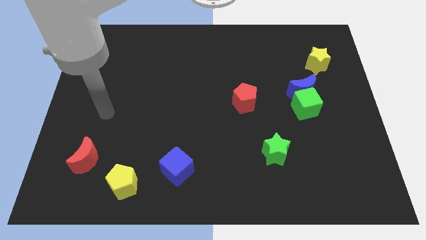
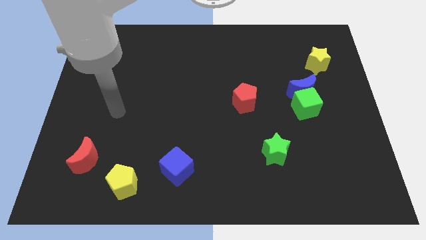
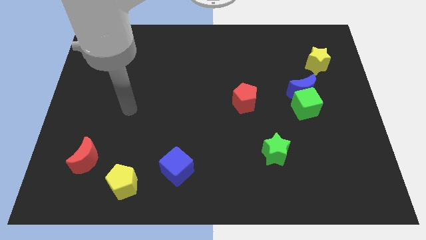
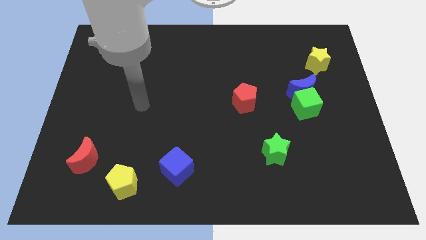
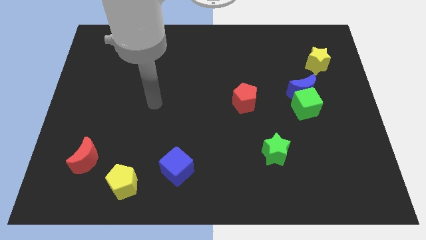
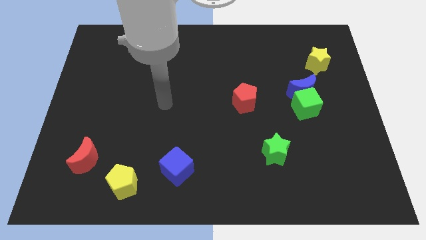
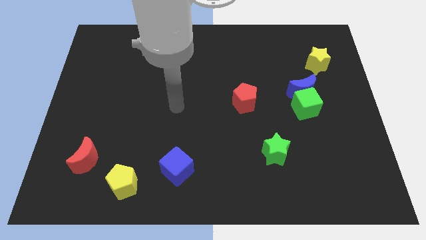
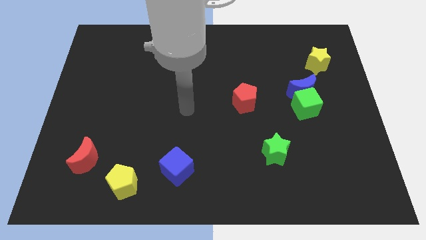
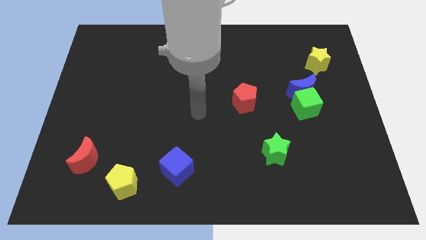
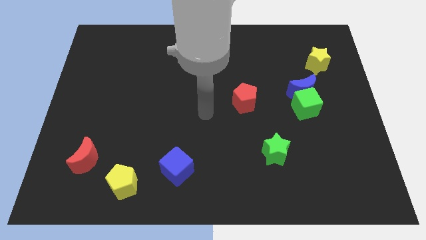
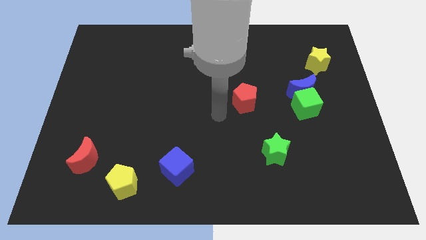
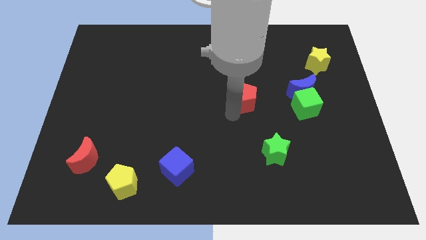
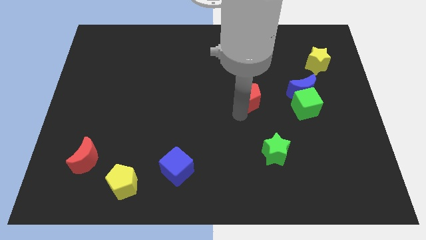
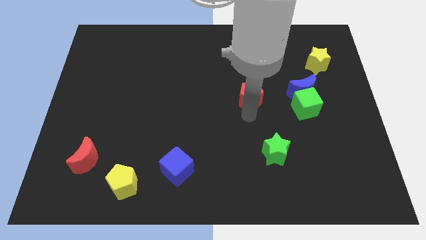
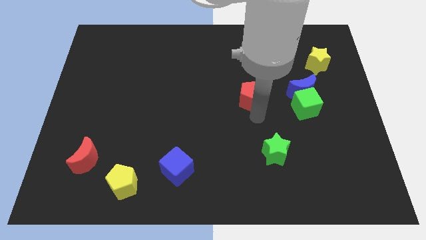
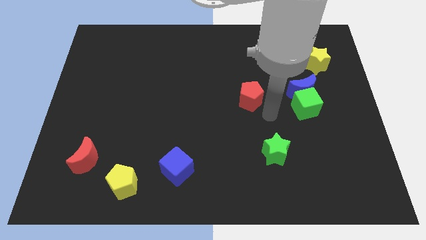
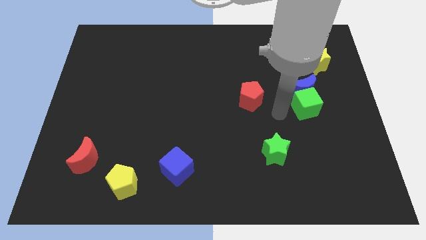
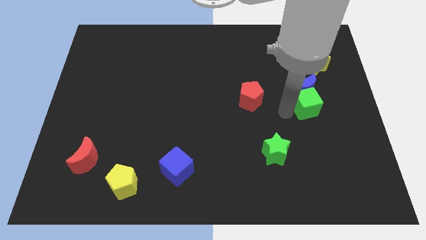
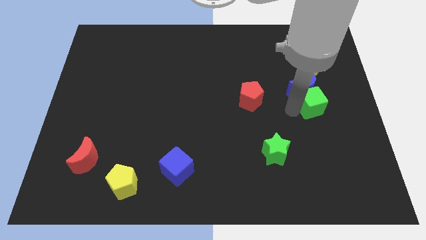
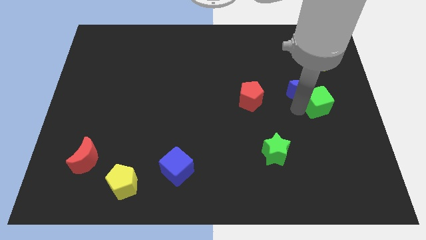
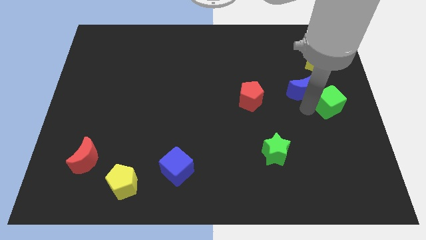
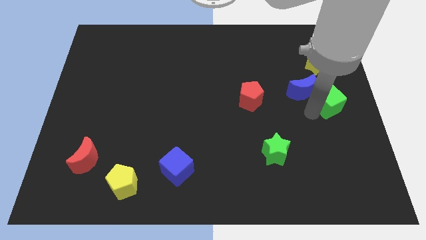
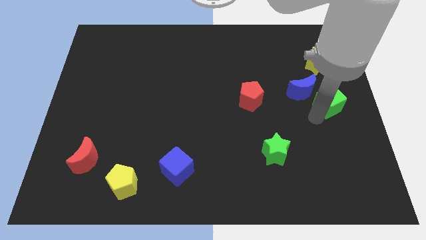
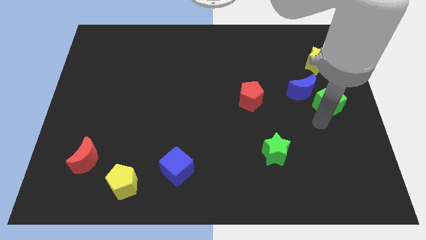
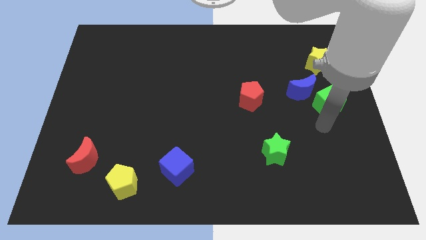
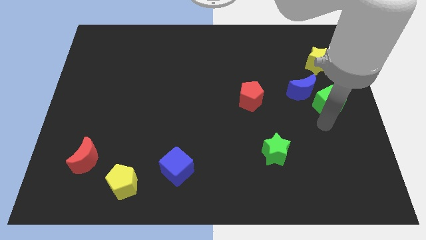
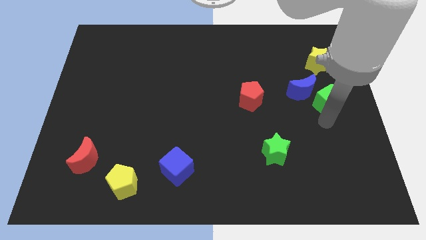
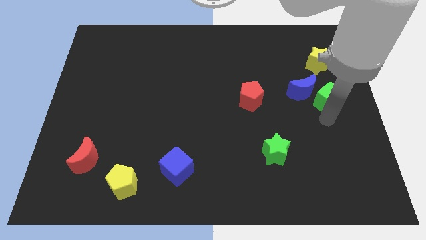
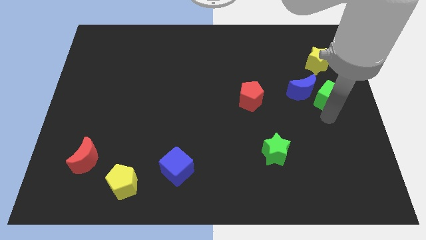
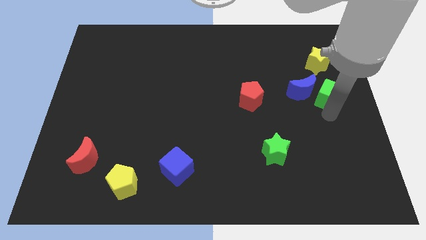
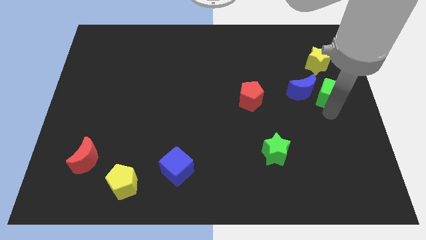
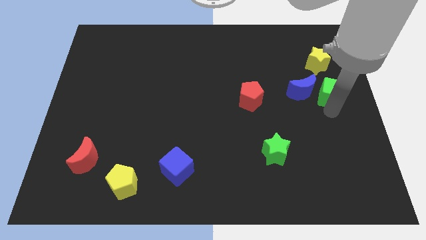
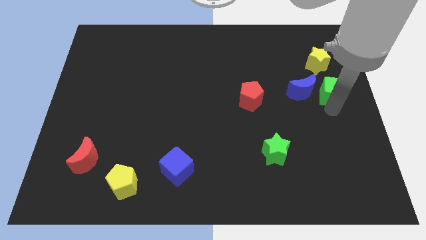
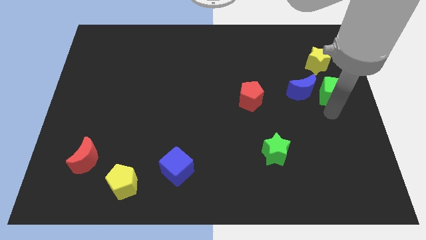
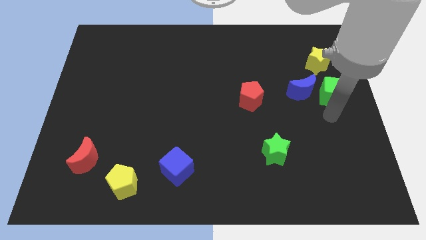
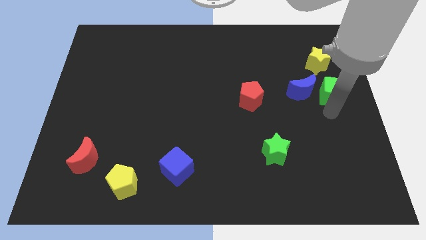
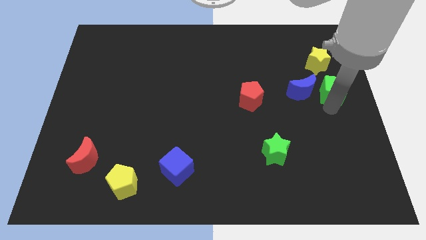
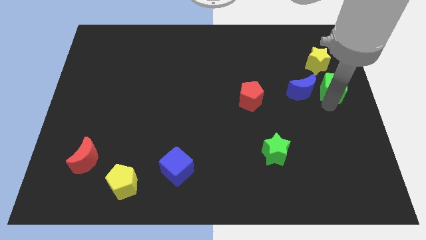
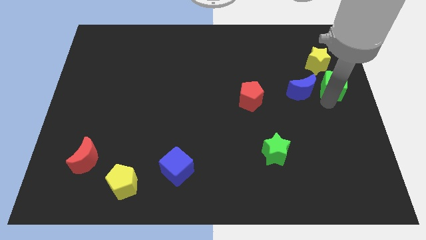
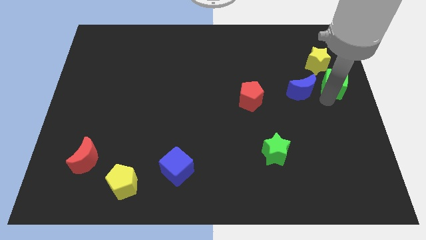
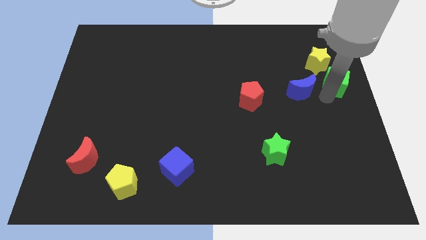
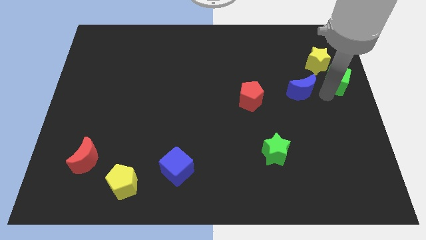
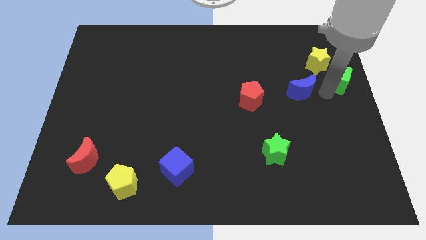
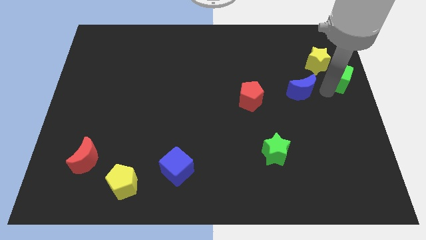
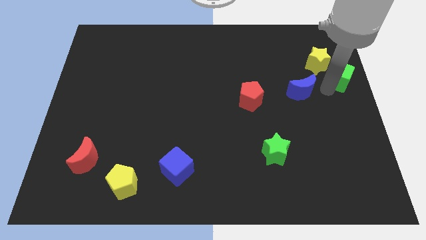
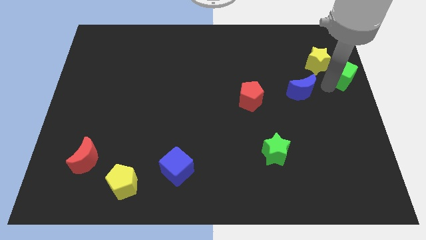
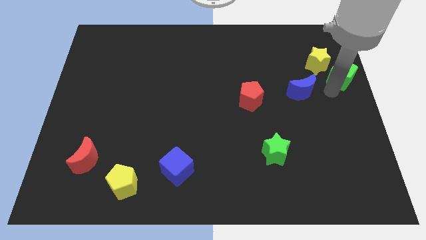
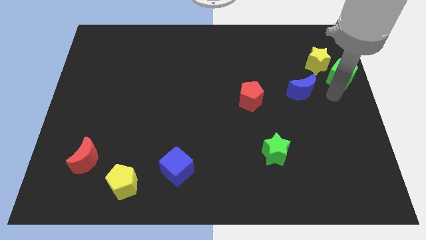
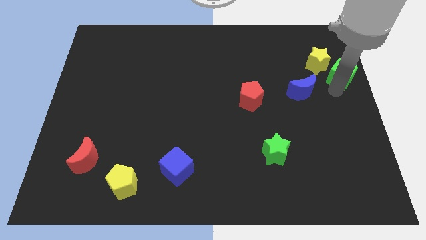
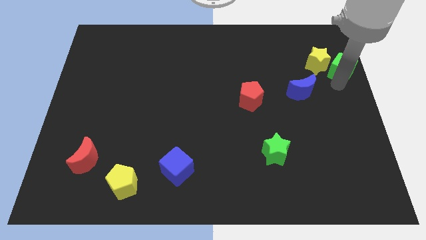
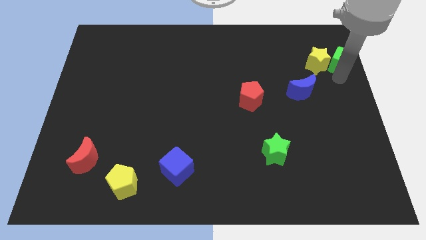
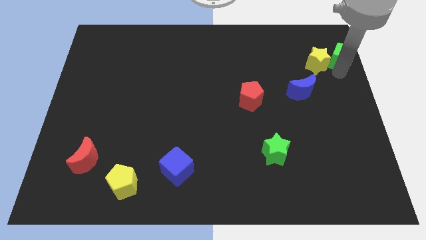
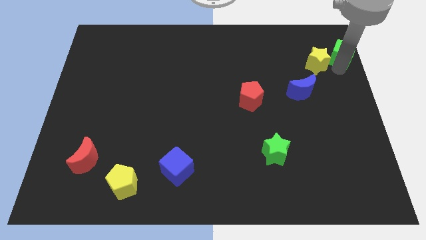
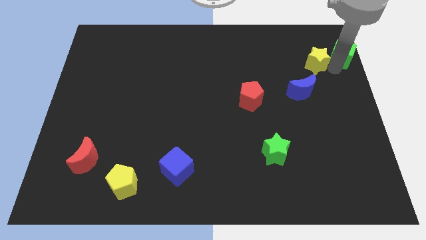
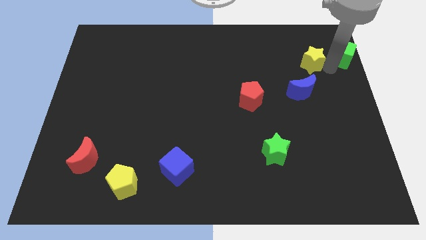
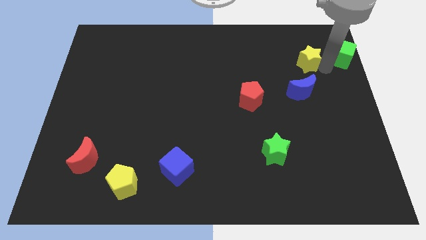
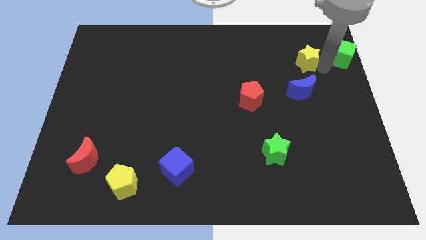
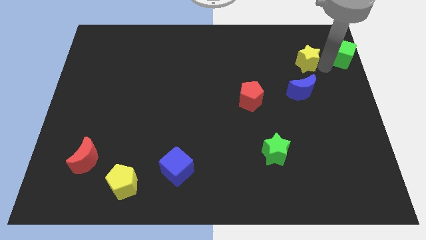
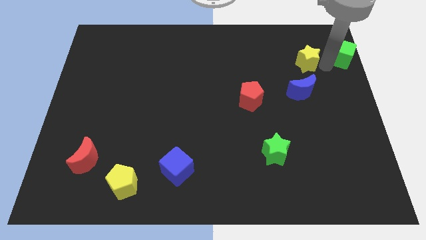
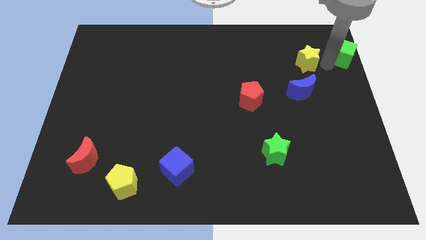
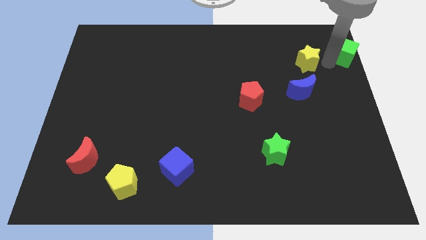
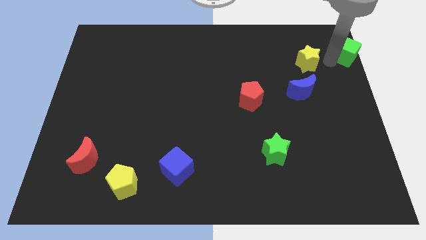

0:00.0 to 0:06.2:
move the green cube to the upper right corner

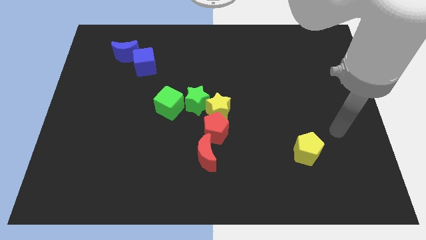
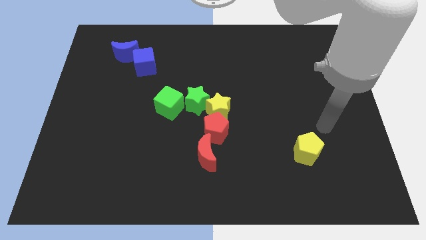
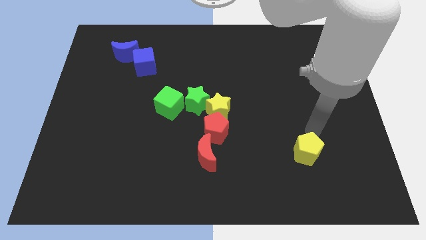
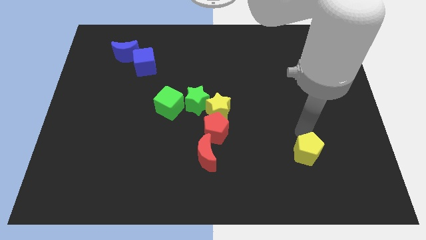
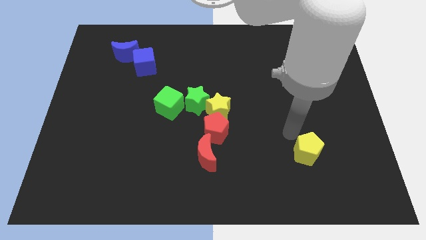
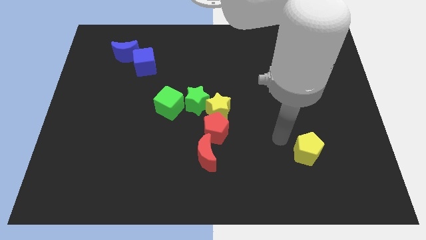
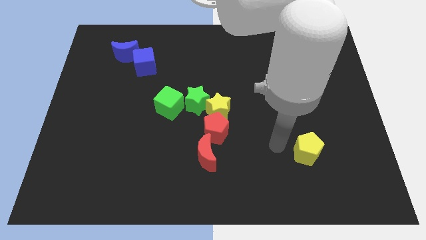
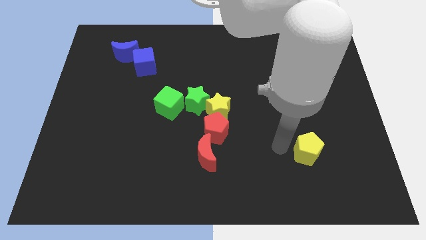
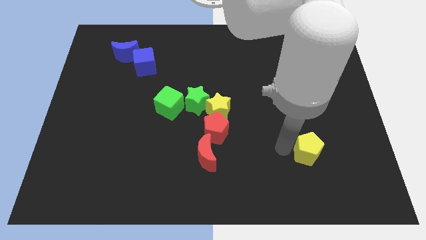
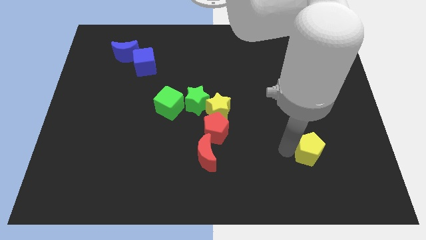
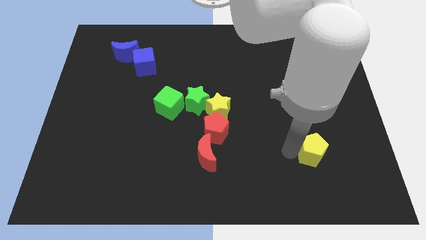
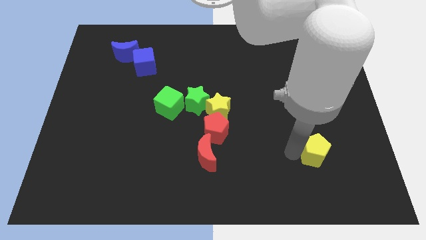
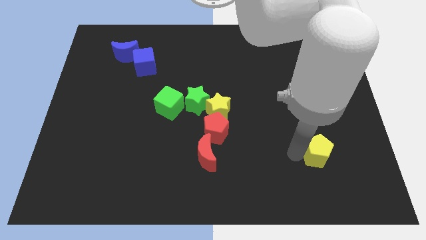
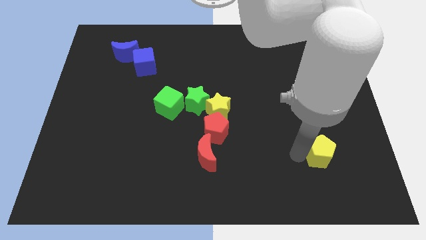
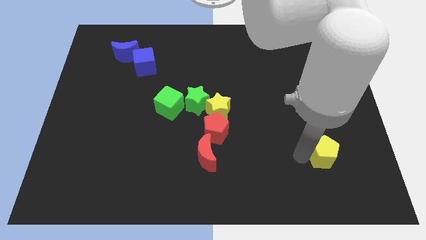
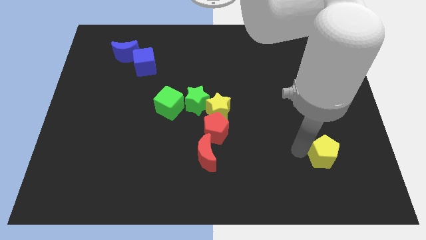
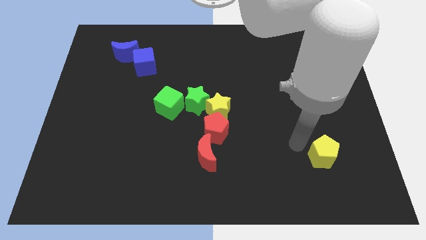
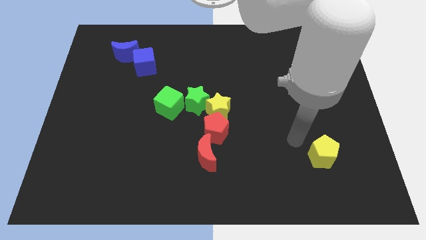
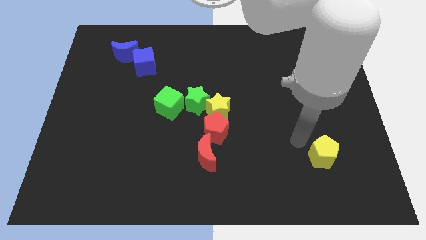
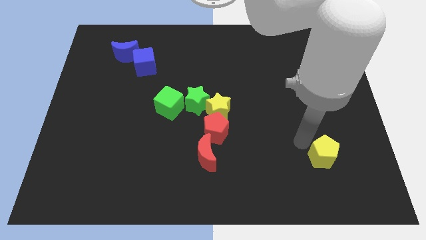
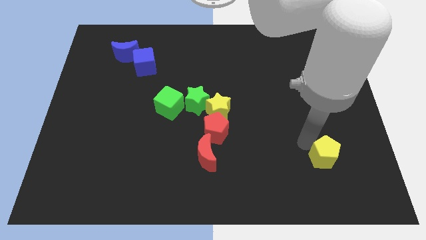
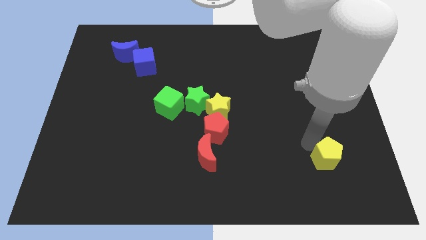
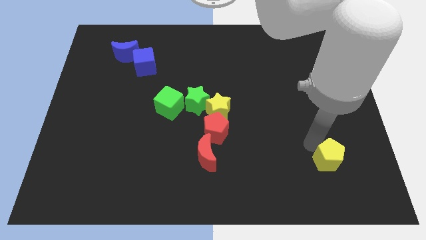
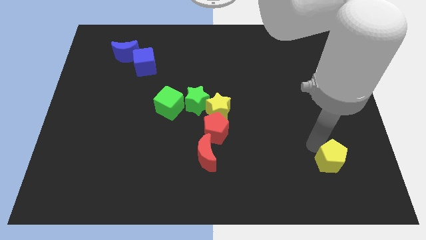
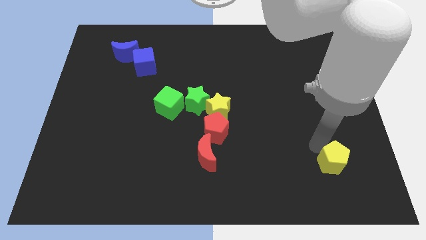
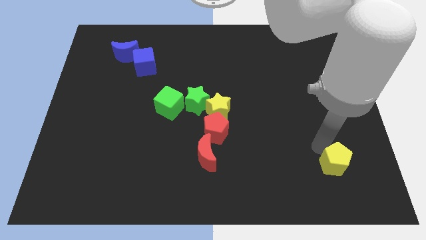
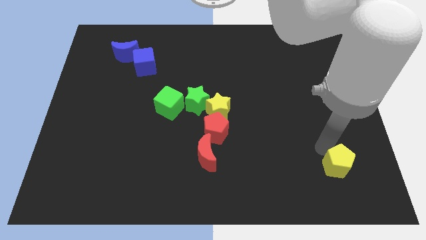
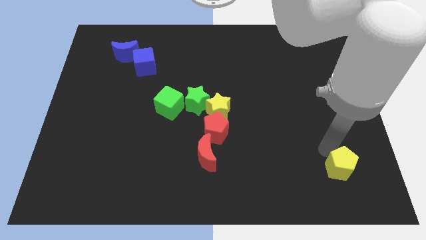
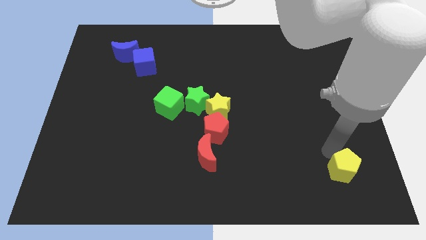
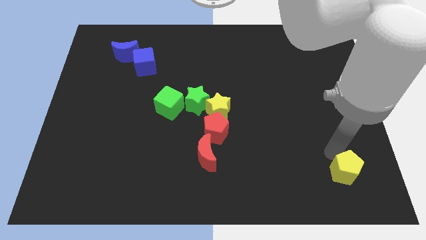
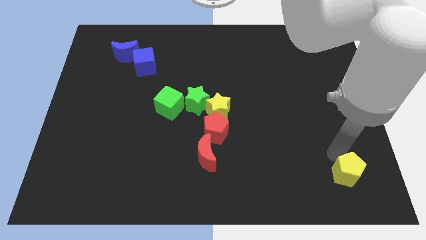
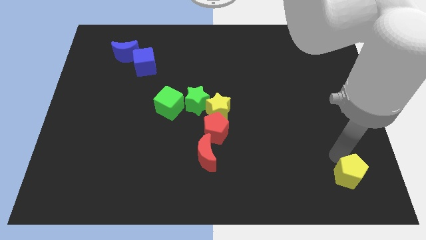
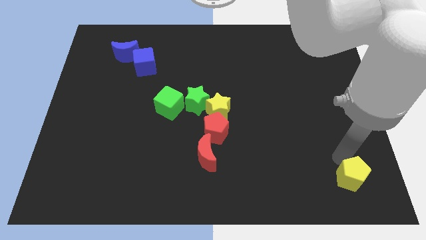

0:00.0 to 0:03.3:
push the yellow pentagon to the bottom right of the board
